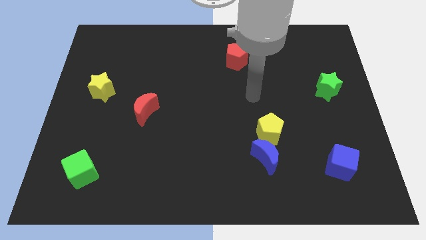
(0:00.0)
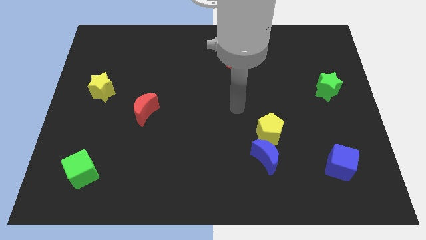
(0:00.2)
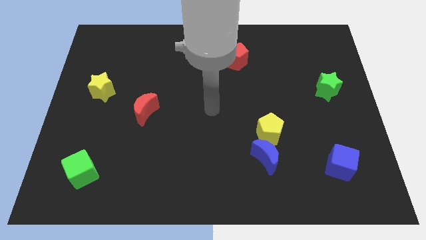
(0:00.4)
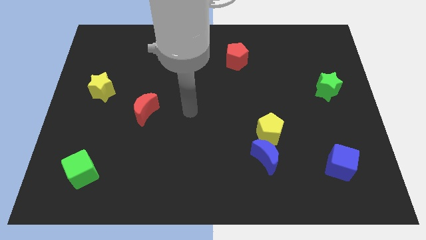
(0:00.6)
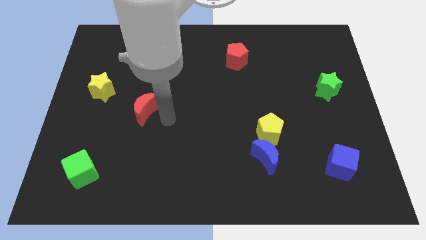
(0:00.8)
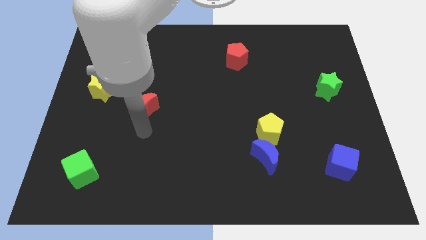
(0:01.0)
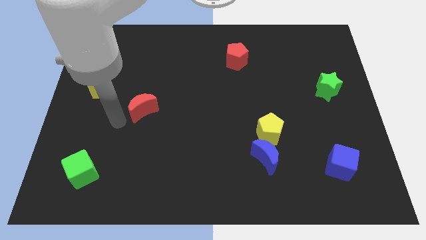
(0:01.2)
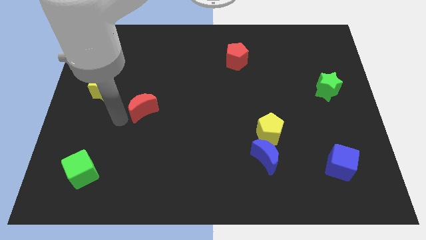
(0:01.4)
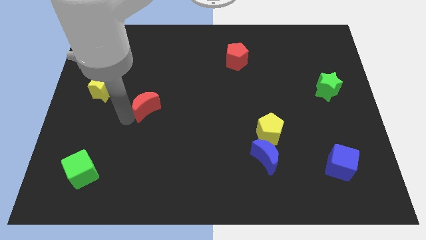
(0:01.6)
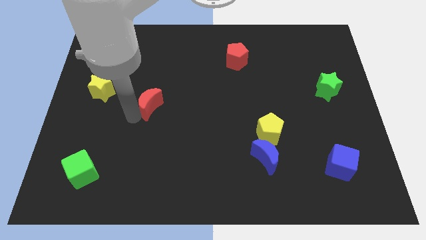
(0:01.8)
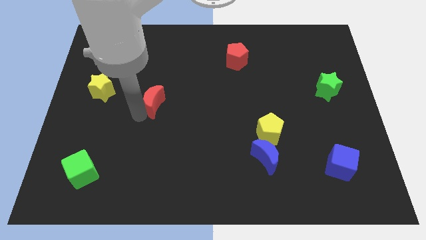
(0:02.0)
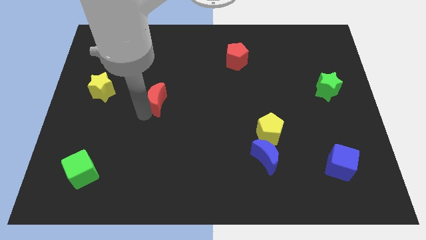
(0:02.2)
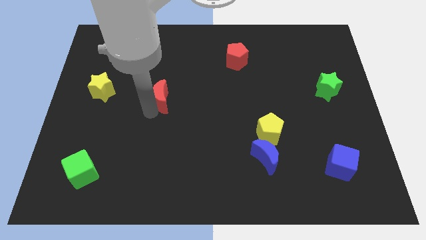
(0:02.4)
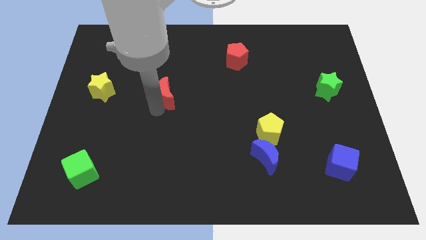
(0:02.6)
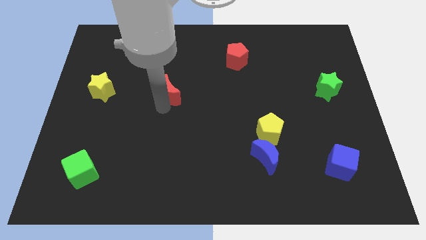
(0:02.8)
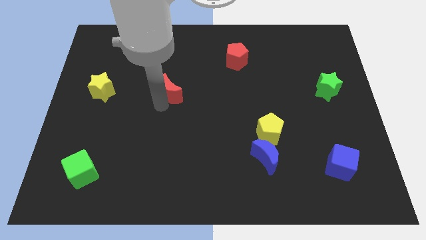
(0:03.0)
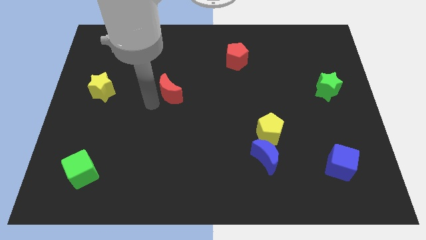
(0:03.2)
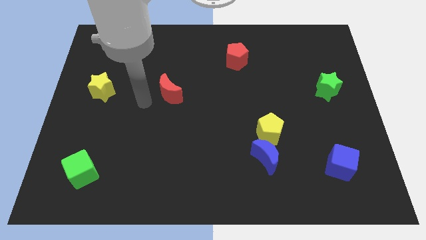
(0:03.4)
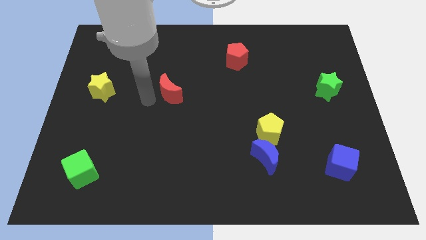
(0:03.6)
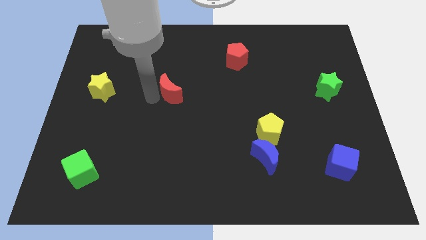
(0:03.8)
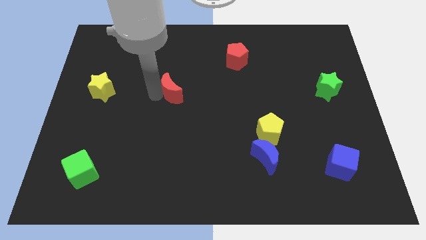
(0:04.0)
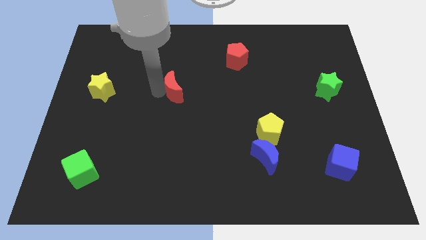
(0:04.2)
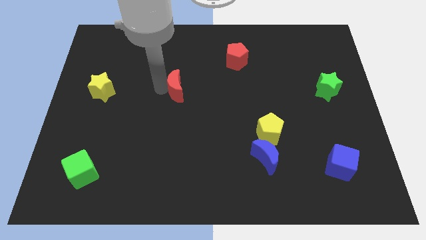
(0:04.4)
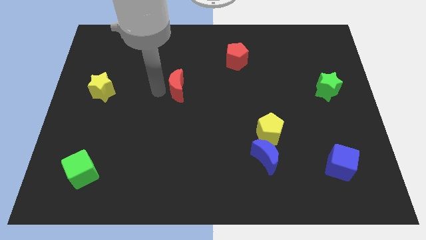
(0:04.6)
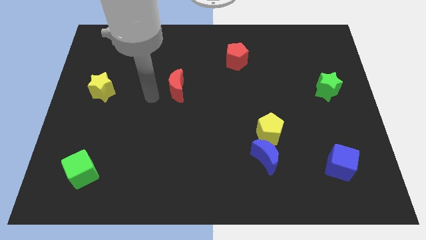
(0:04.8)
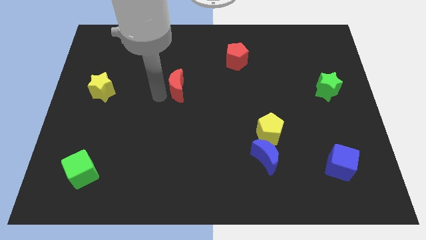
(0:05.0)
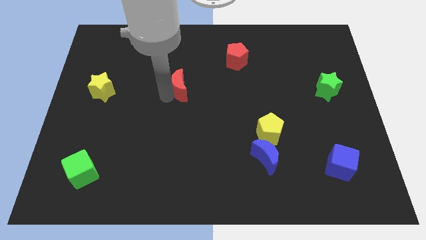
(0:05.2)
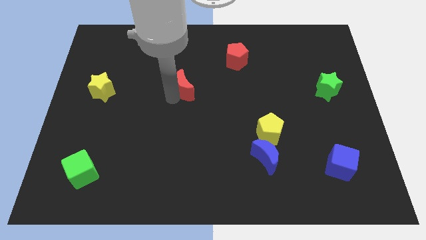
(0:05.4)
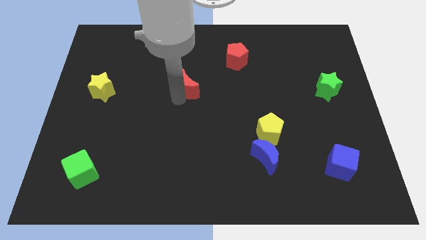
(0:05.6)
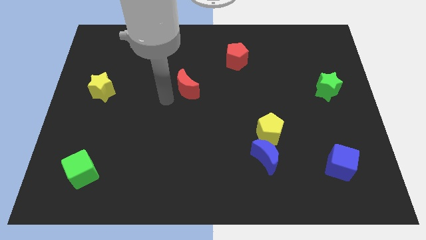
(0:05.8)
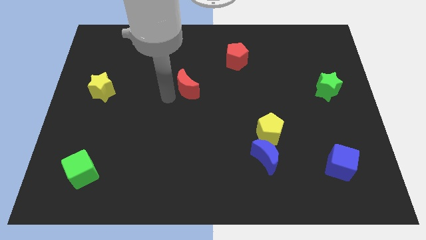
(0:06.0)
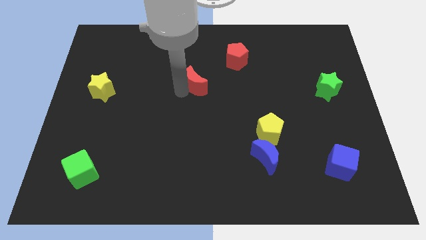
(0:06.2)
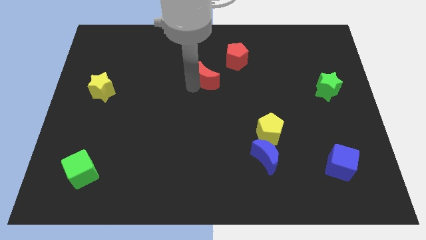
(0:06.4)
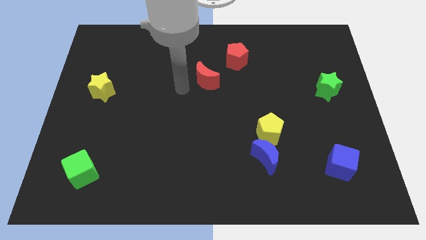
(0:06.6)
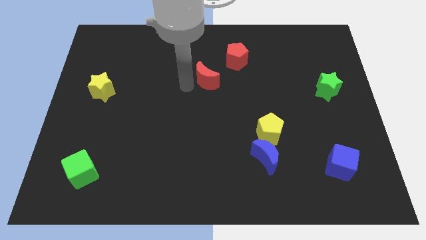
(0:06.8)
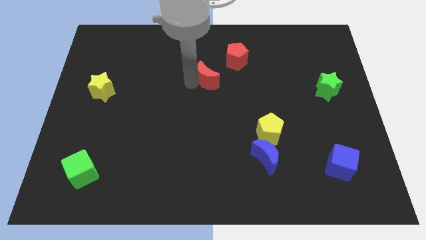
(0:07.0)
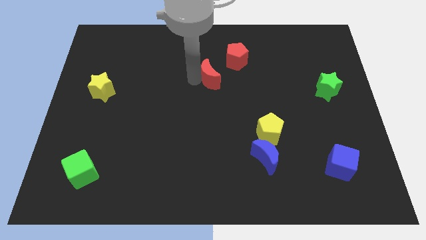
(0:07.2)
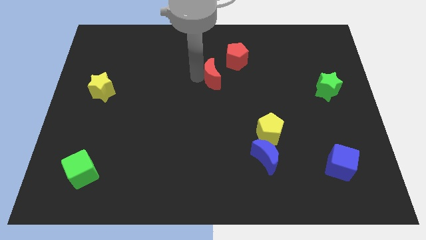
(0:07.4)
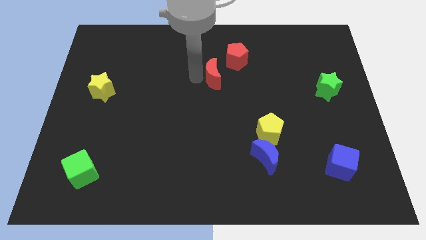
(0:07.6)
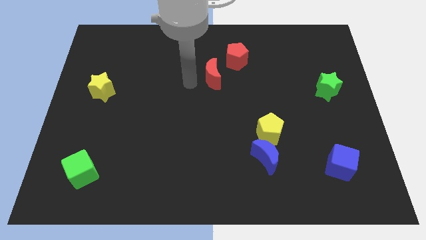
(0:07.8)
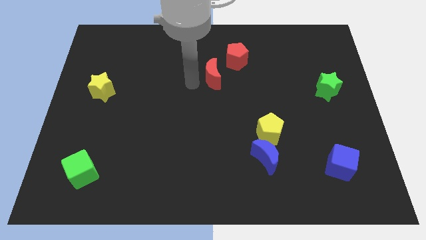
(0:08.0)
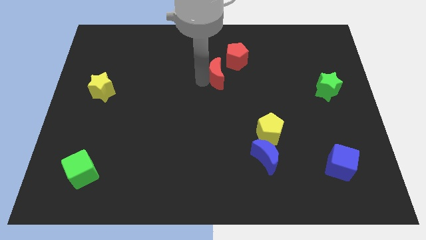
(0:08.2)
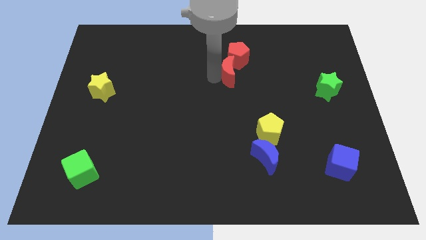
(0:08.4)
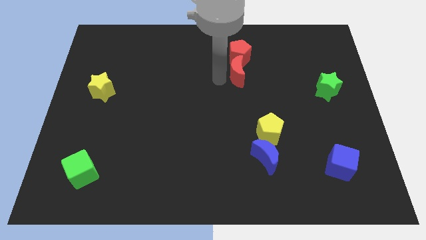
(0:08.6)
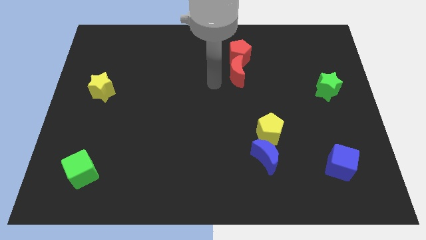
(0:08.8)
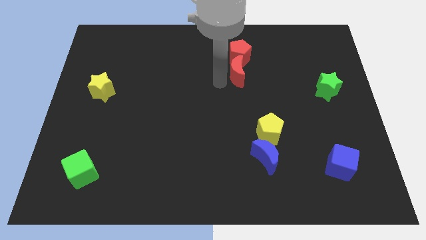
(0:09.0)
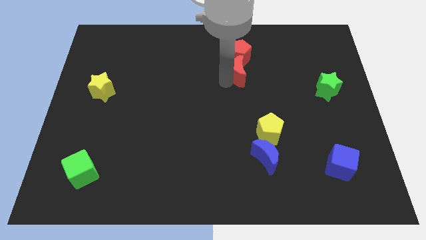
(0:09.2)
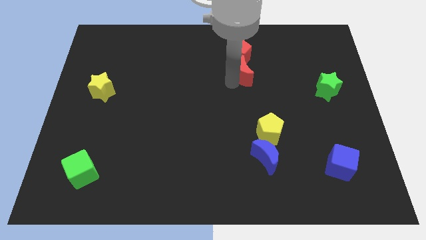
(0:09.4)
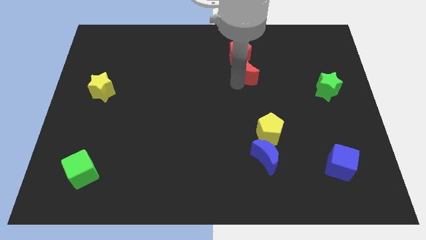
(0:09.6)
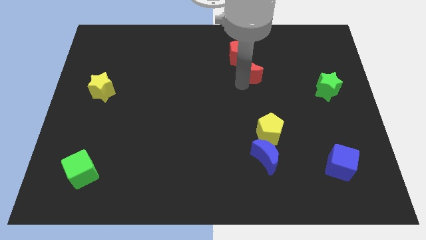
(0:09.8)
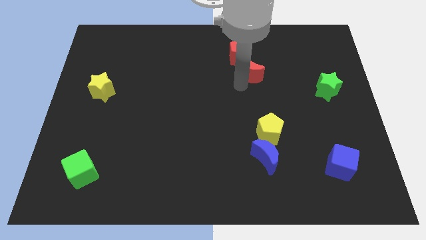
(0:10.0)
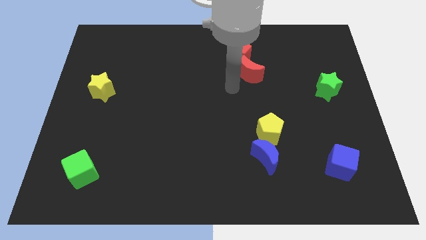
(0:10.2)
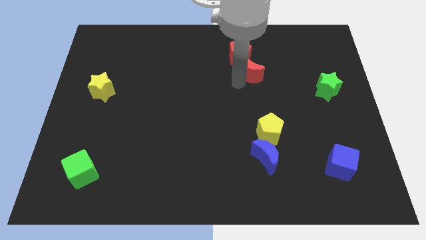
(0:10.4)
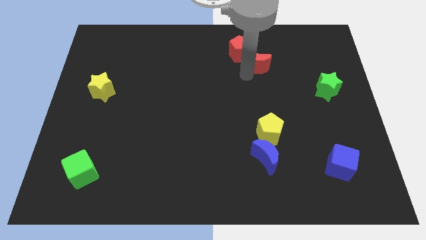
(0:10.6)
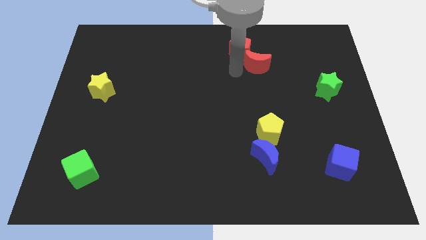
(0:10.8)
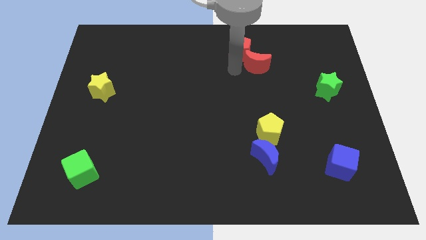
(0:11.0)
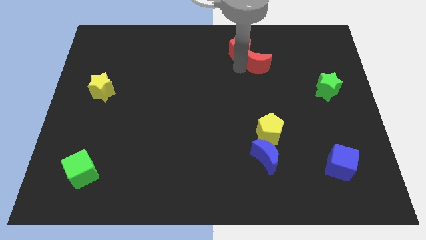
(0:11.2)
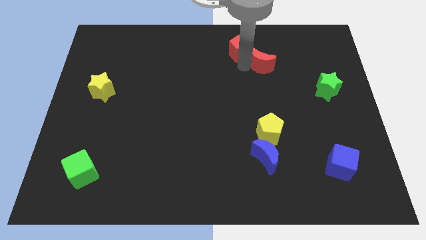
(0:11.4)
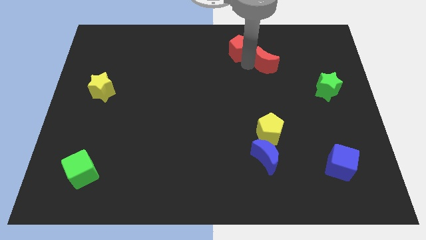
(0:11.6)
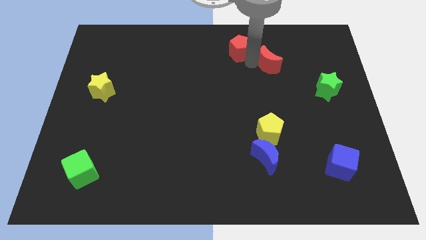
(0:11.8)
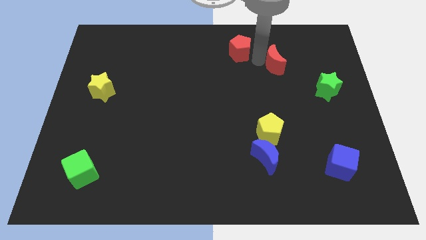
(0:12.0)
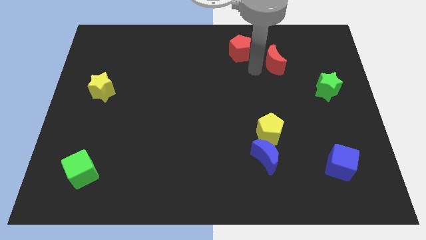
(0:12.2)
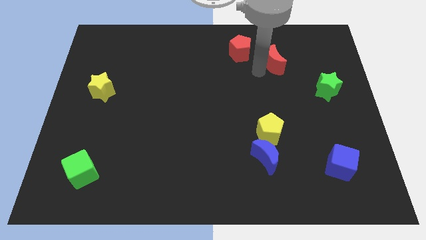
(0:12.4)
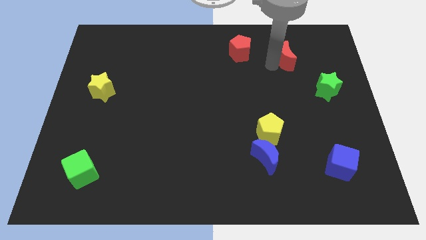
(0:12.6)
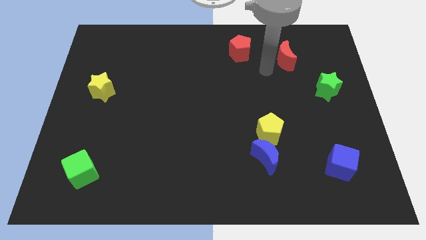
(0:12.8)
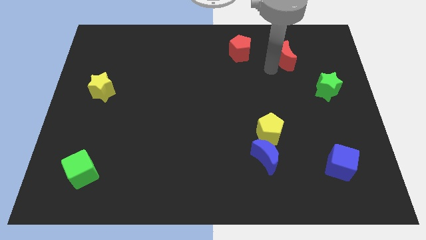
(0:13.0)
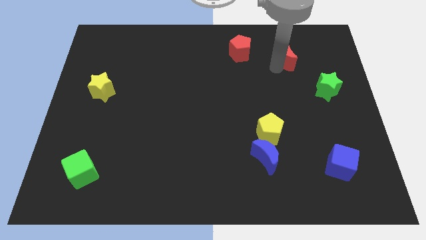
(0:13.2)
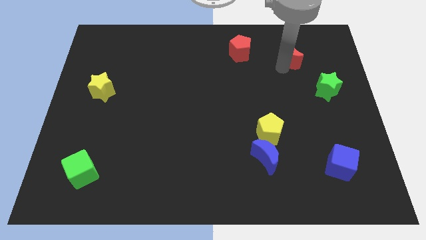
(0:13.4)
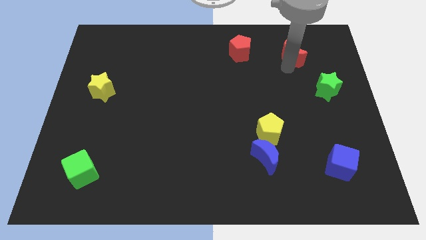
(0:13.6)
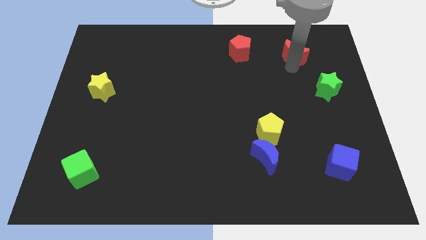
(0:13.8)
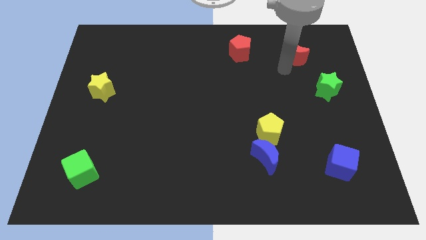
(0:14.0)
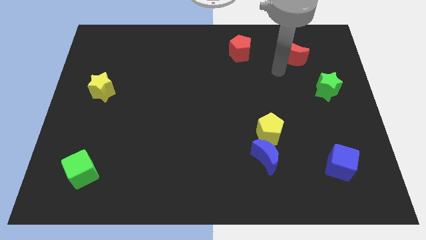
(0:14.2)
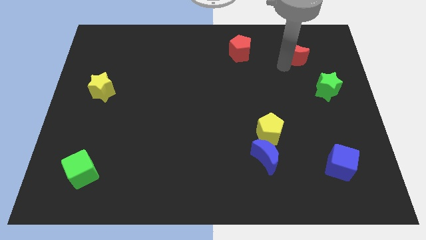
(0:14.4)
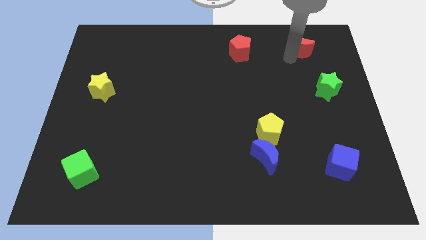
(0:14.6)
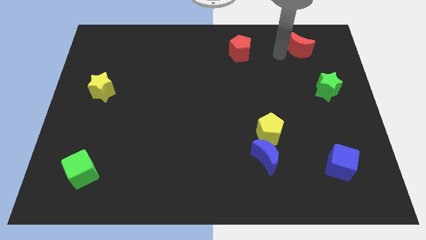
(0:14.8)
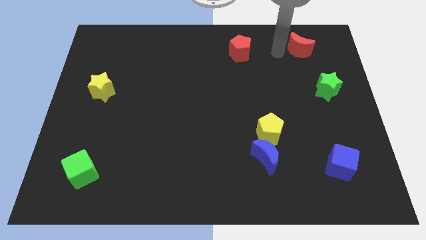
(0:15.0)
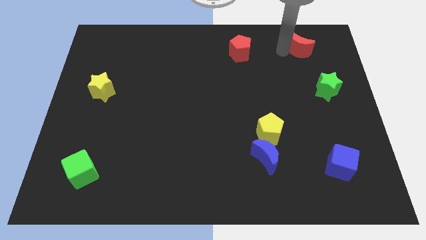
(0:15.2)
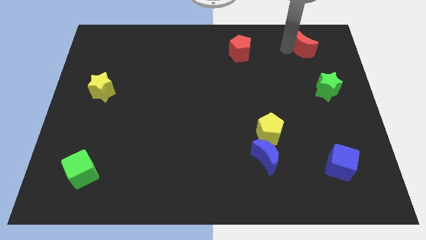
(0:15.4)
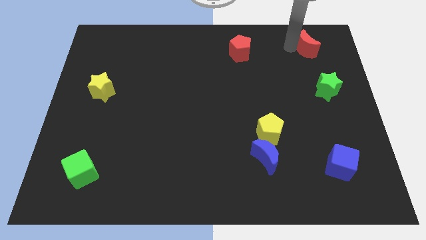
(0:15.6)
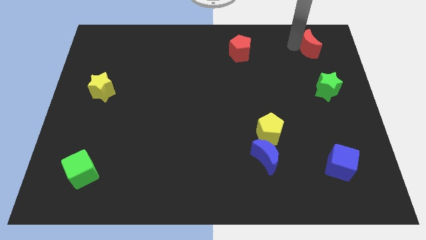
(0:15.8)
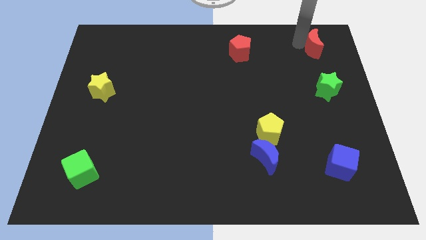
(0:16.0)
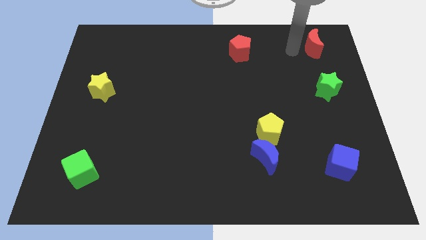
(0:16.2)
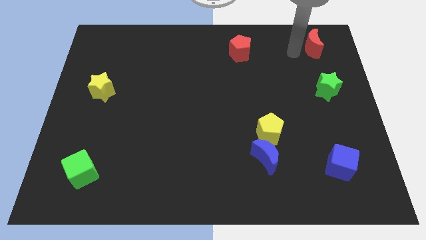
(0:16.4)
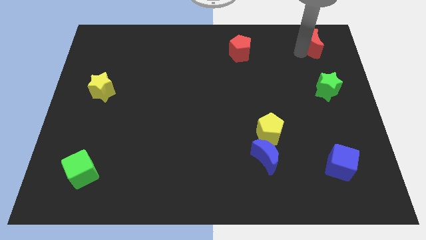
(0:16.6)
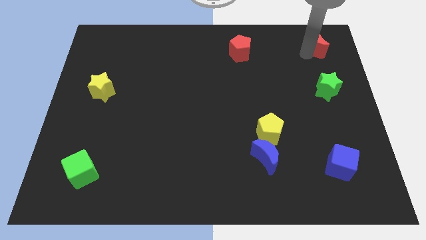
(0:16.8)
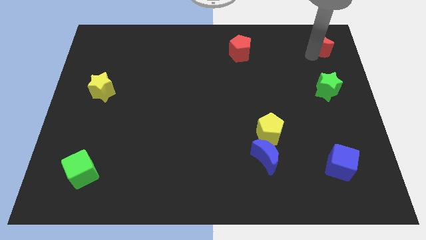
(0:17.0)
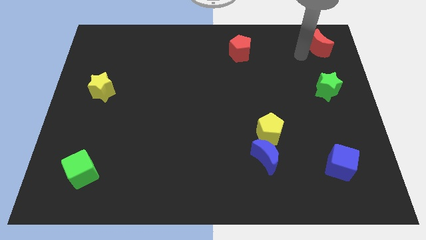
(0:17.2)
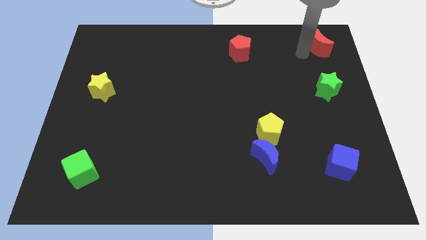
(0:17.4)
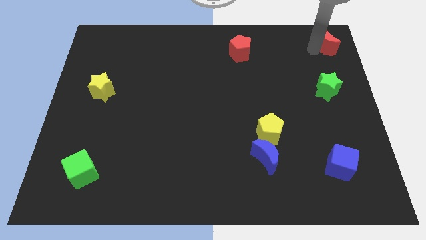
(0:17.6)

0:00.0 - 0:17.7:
push the red moon to the top right of the board
